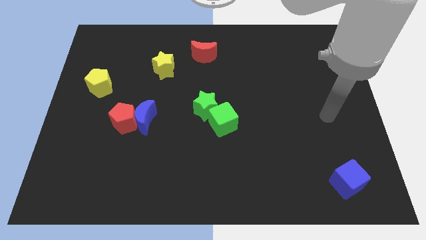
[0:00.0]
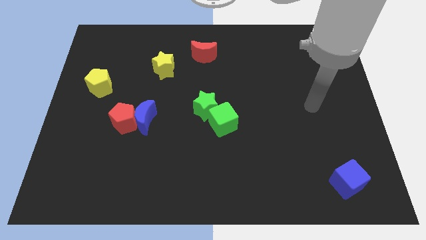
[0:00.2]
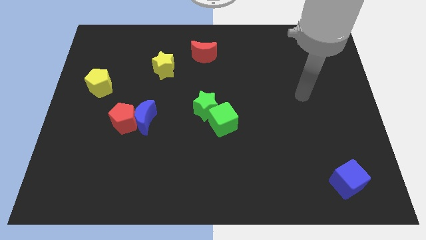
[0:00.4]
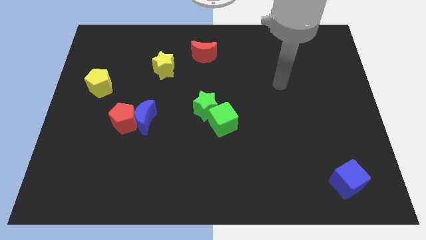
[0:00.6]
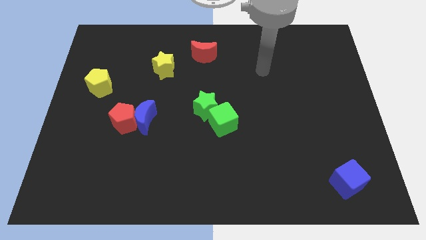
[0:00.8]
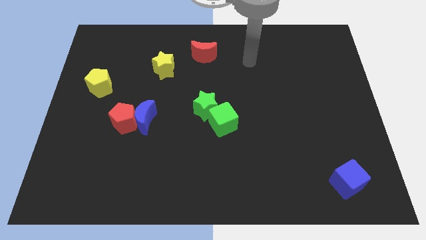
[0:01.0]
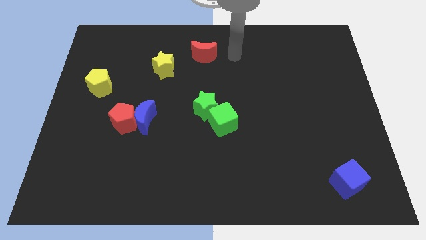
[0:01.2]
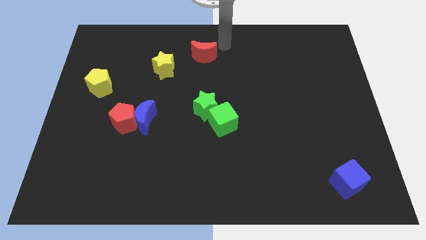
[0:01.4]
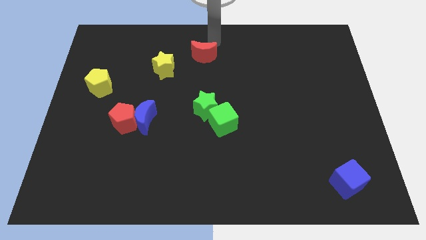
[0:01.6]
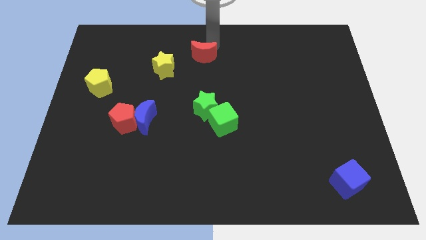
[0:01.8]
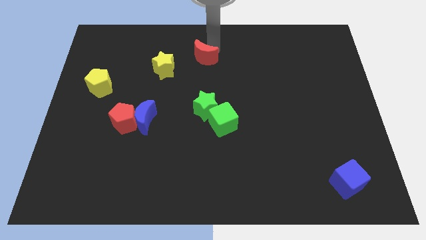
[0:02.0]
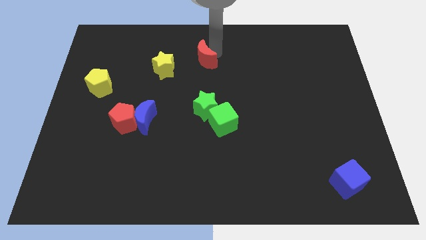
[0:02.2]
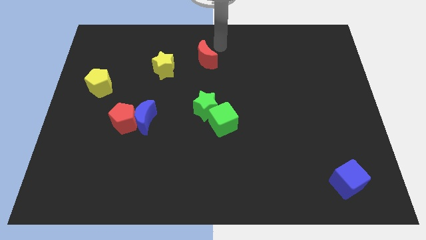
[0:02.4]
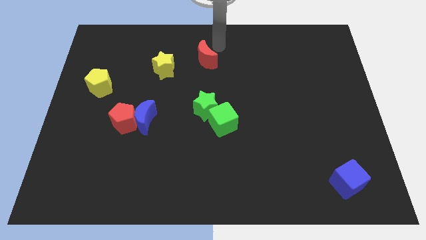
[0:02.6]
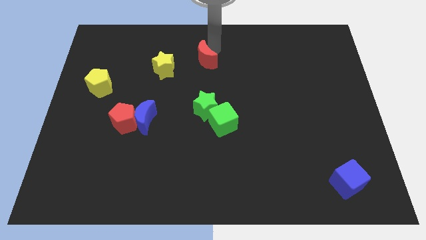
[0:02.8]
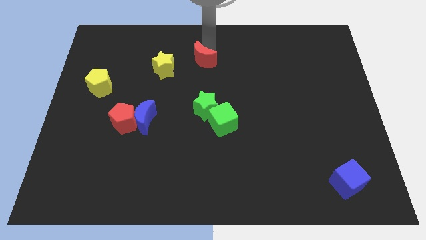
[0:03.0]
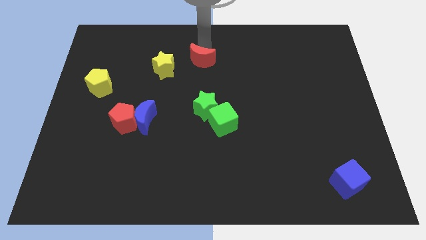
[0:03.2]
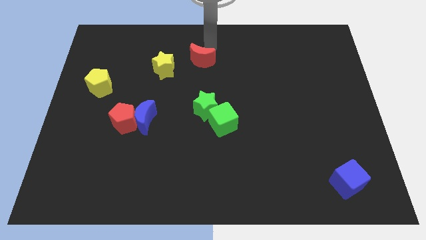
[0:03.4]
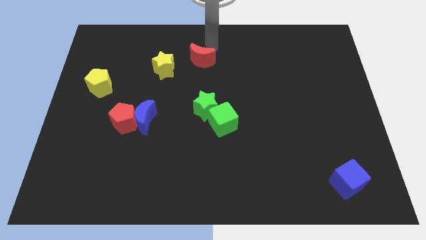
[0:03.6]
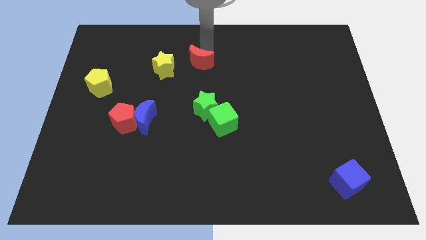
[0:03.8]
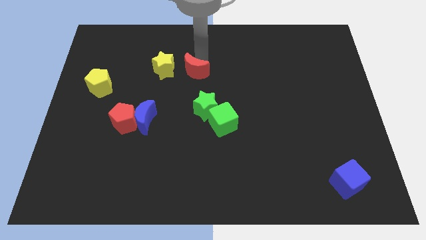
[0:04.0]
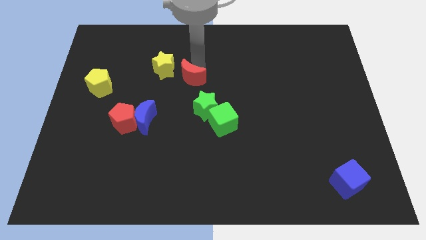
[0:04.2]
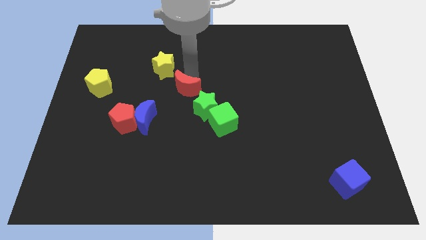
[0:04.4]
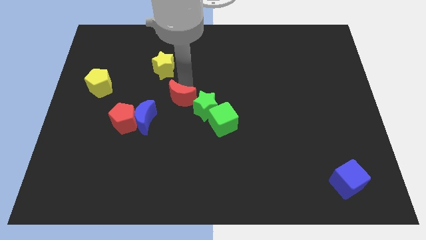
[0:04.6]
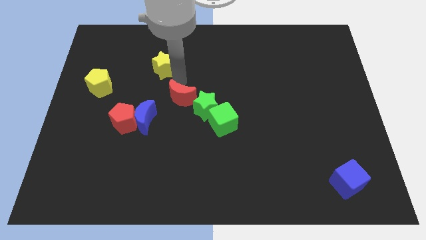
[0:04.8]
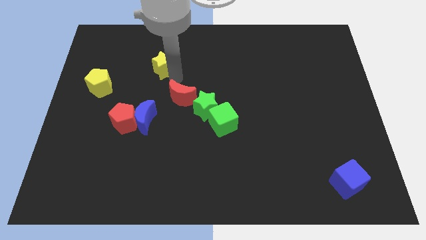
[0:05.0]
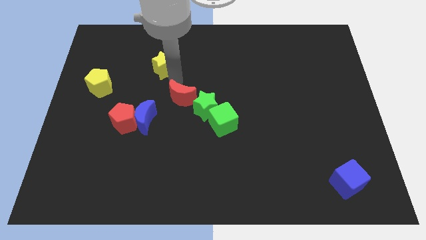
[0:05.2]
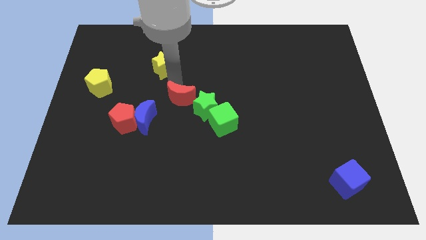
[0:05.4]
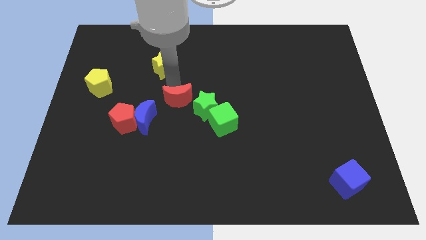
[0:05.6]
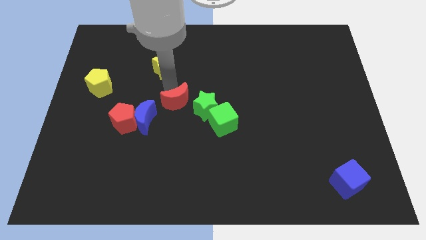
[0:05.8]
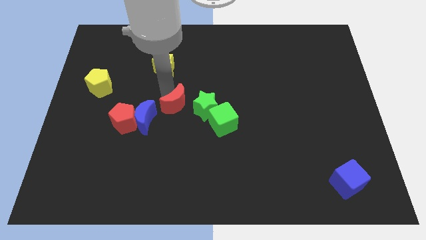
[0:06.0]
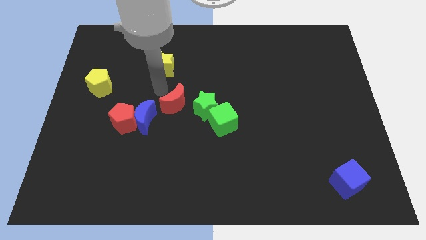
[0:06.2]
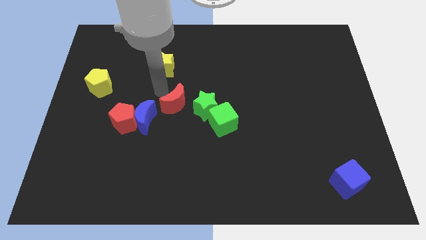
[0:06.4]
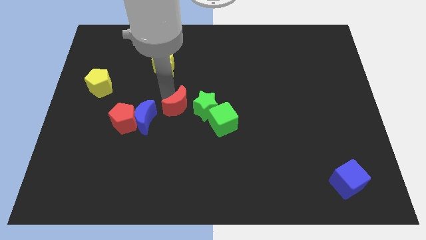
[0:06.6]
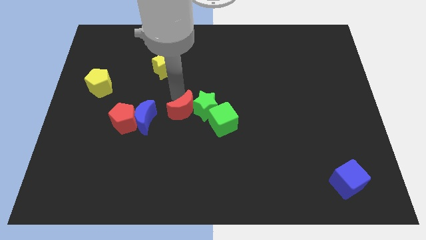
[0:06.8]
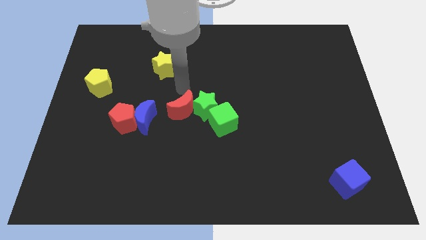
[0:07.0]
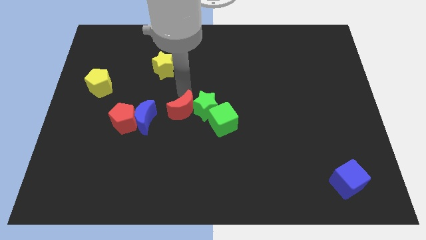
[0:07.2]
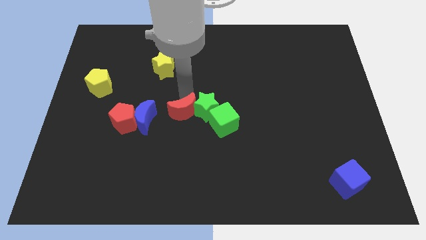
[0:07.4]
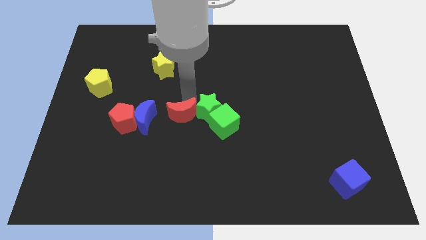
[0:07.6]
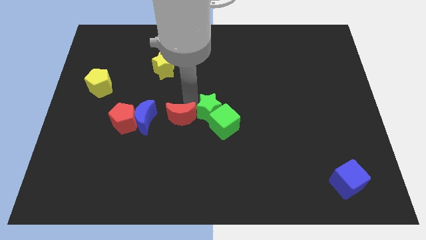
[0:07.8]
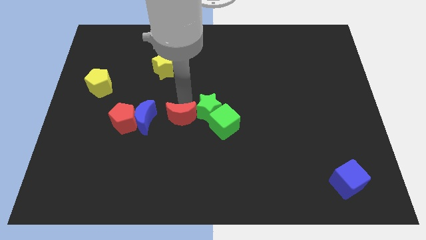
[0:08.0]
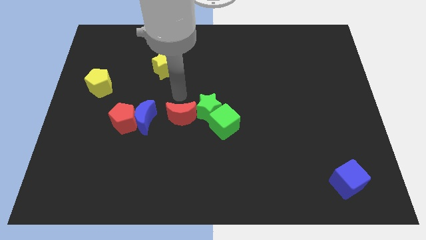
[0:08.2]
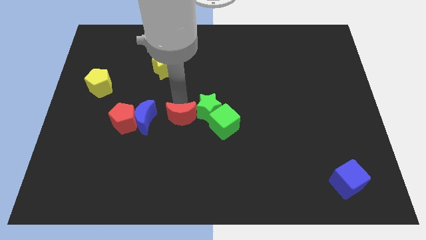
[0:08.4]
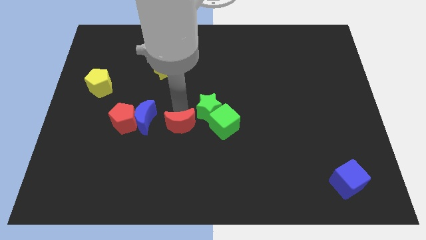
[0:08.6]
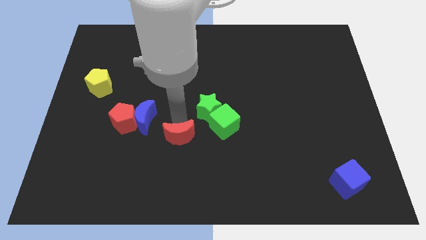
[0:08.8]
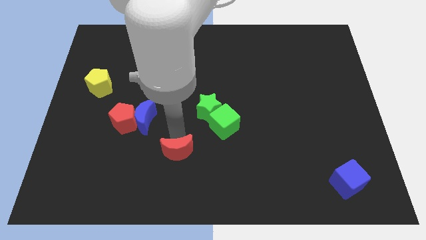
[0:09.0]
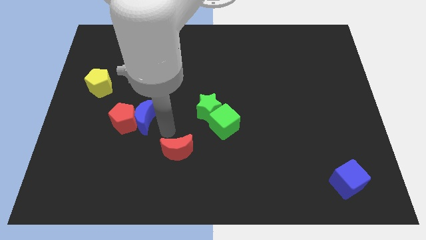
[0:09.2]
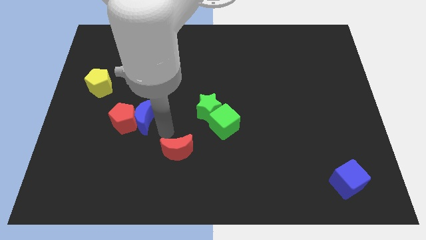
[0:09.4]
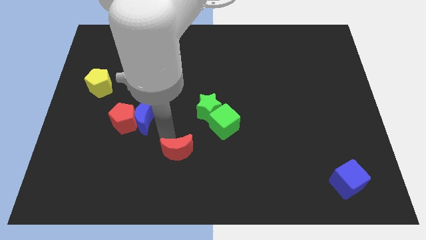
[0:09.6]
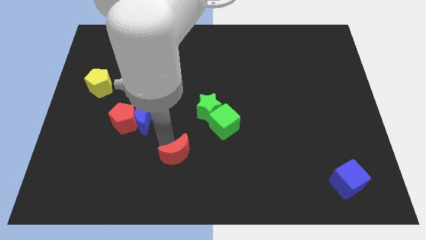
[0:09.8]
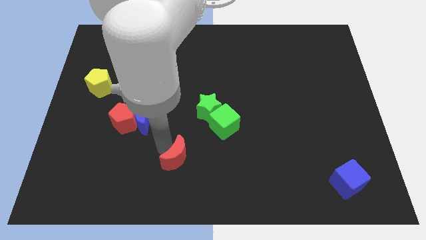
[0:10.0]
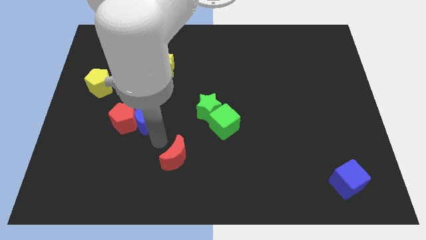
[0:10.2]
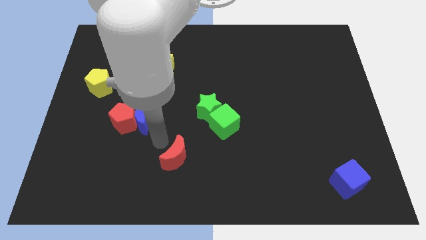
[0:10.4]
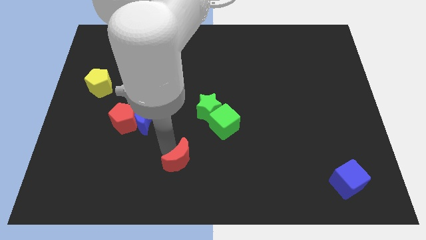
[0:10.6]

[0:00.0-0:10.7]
push the red moon to the bottom side

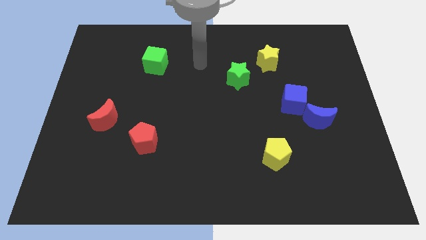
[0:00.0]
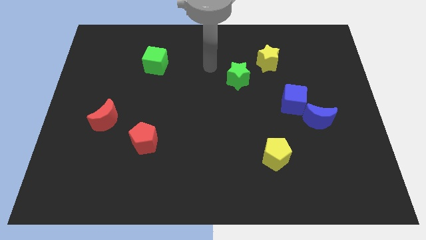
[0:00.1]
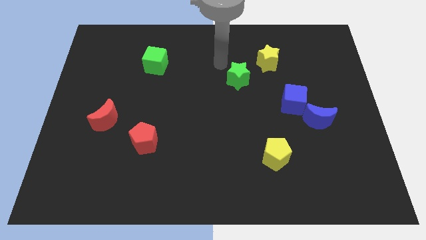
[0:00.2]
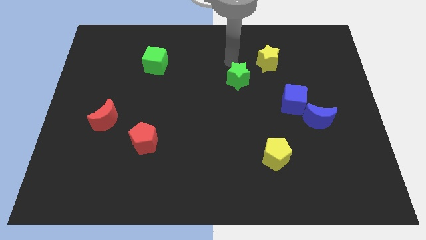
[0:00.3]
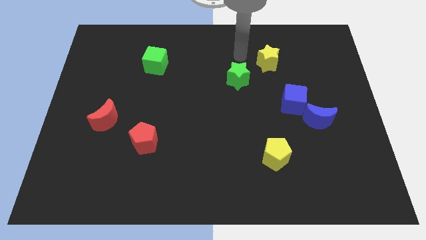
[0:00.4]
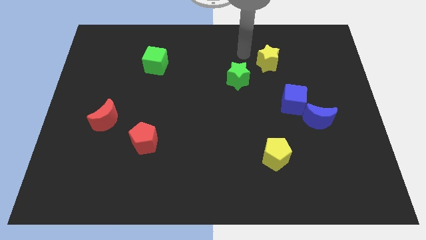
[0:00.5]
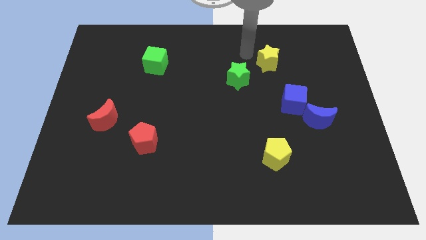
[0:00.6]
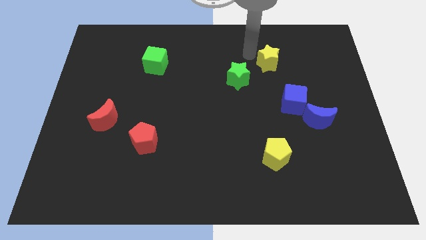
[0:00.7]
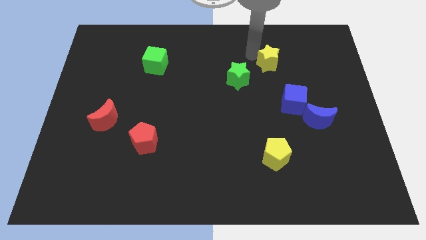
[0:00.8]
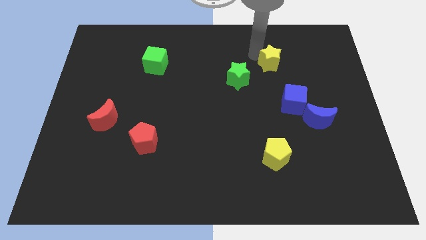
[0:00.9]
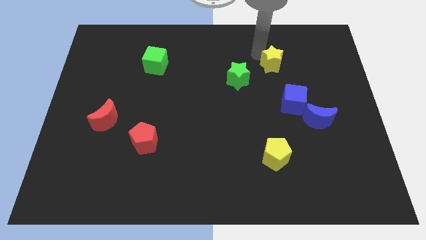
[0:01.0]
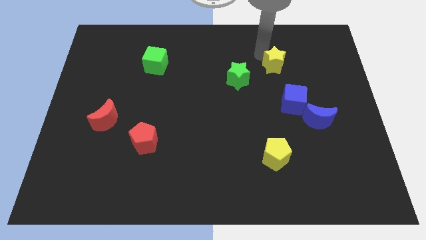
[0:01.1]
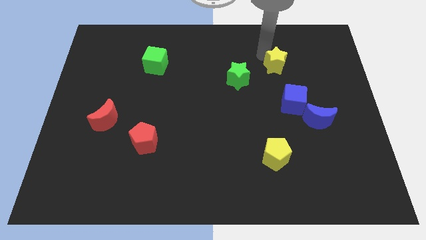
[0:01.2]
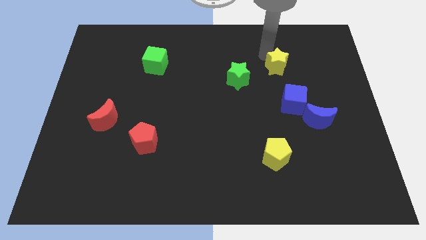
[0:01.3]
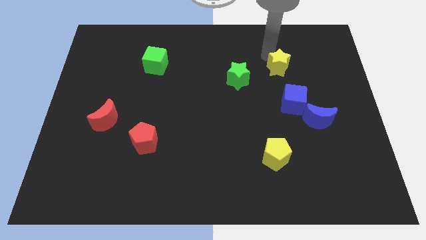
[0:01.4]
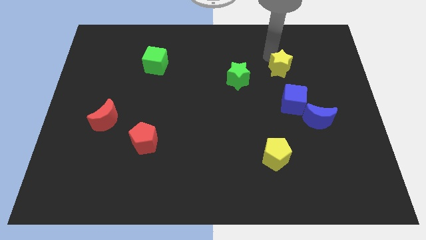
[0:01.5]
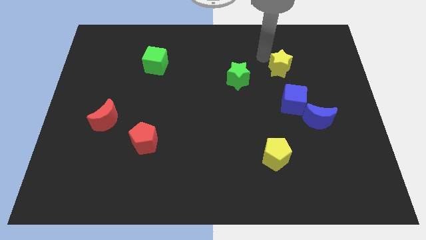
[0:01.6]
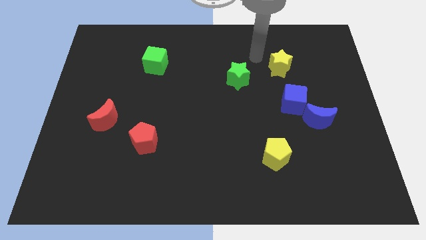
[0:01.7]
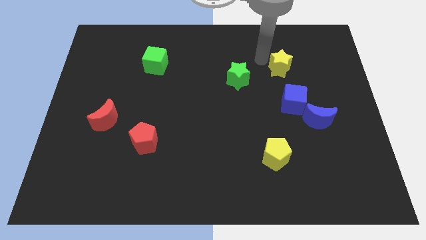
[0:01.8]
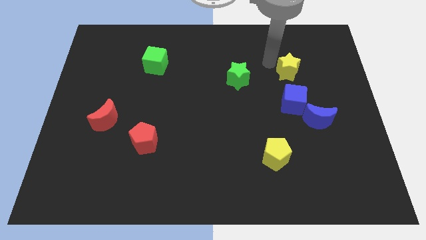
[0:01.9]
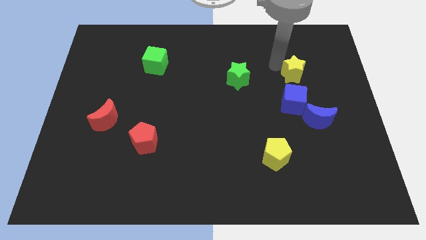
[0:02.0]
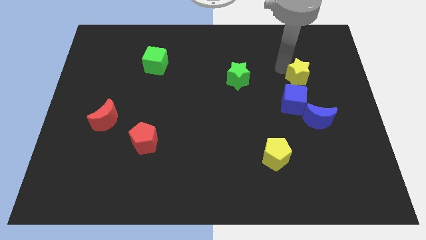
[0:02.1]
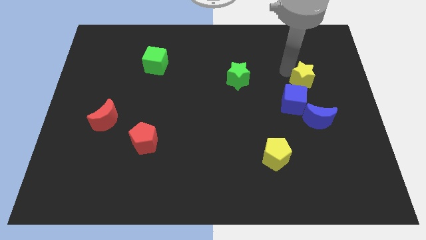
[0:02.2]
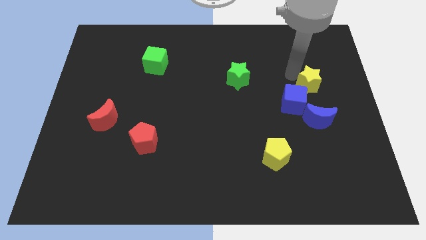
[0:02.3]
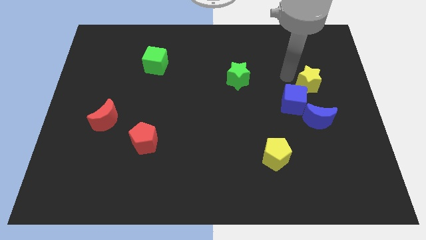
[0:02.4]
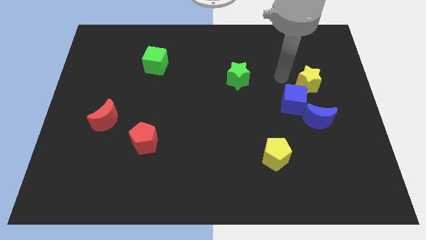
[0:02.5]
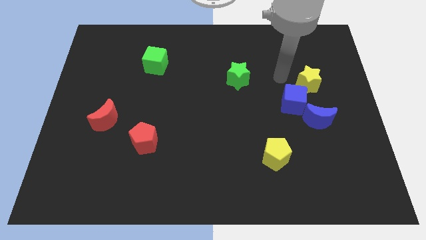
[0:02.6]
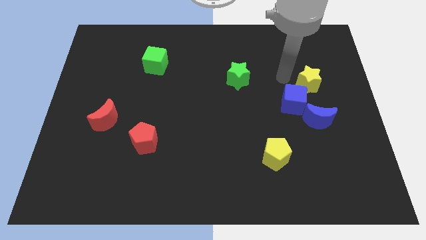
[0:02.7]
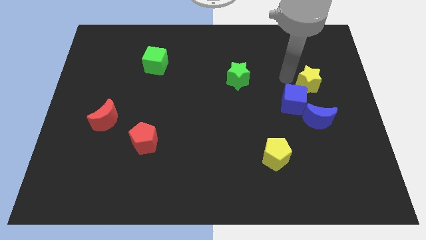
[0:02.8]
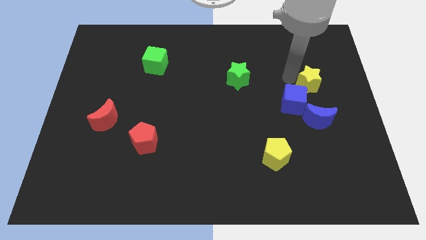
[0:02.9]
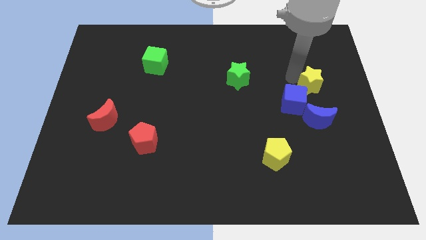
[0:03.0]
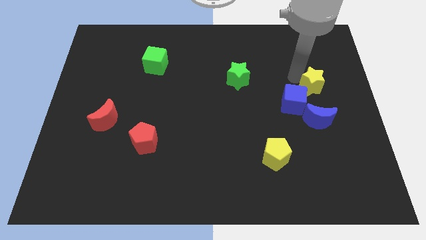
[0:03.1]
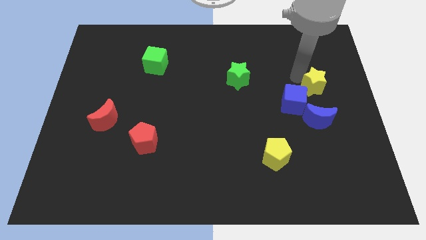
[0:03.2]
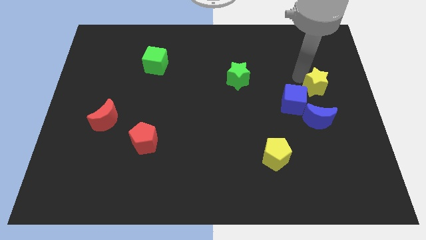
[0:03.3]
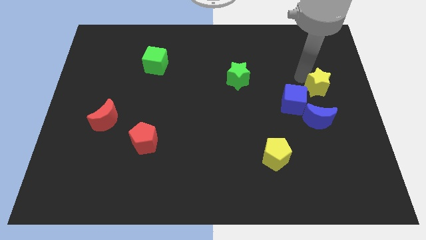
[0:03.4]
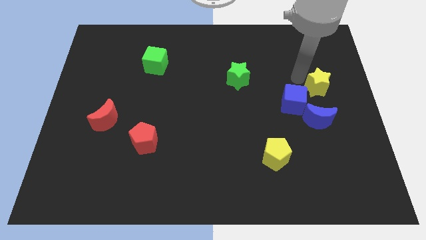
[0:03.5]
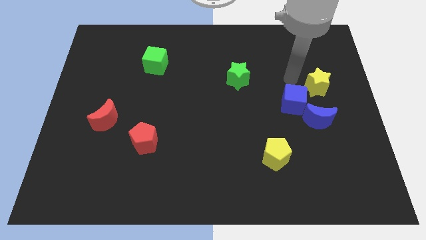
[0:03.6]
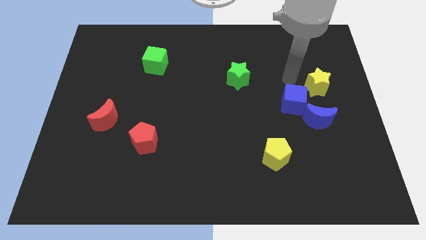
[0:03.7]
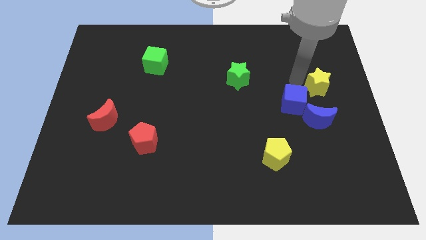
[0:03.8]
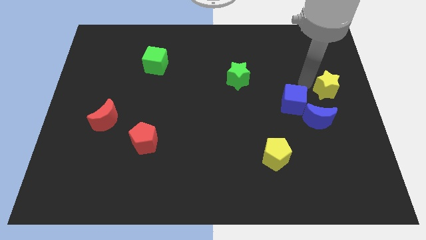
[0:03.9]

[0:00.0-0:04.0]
slide the yellow star to the center right
